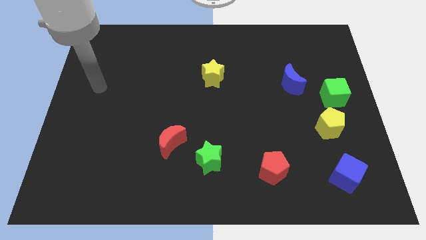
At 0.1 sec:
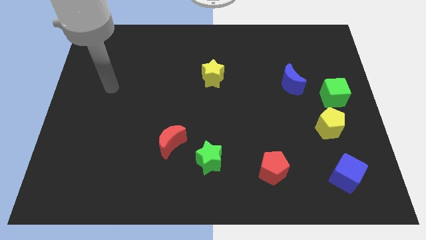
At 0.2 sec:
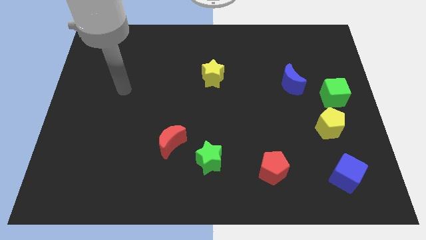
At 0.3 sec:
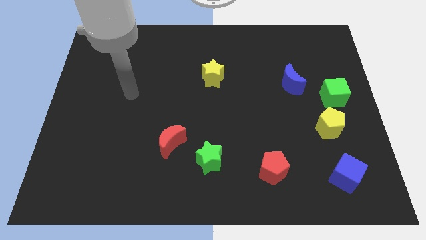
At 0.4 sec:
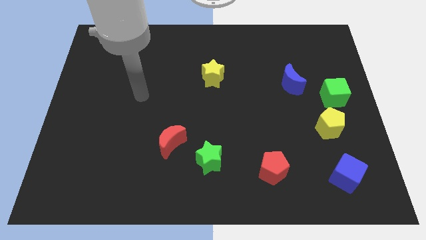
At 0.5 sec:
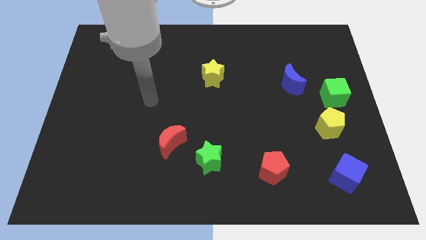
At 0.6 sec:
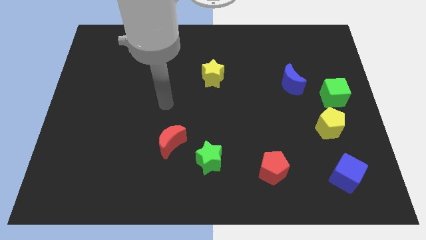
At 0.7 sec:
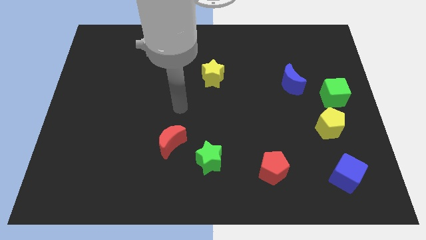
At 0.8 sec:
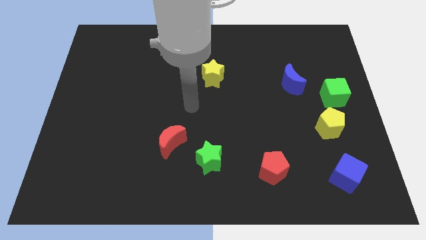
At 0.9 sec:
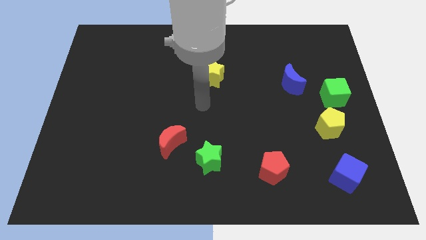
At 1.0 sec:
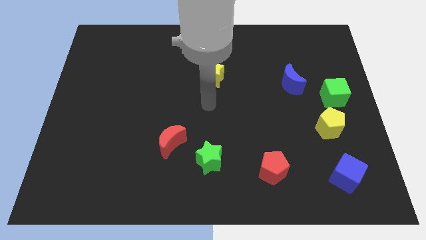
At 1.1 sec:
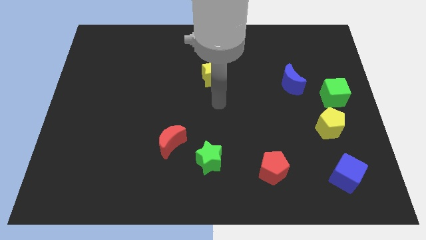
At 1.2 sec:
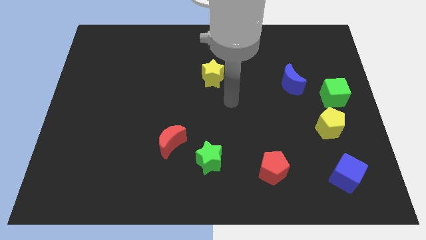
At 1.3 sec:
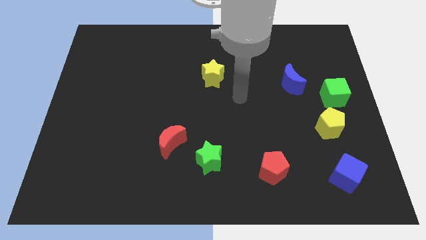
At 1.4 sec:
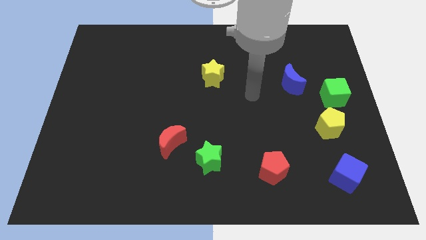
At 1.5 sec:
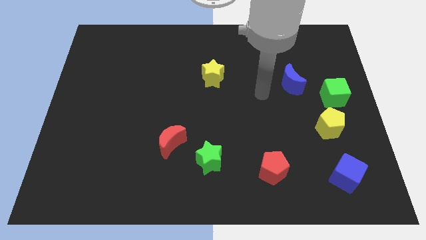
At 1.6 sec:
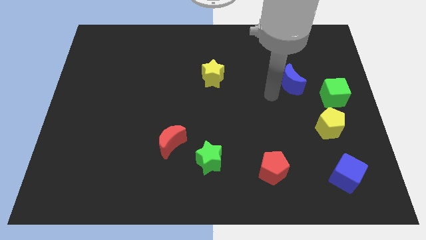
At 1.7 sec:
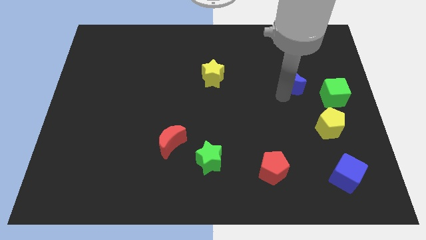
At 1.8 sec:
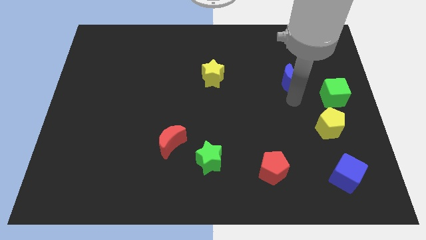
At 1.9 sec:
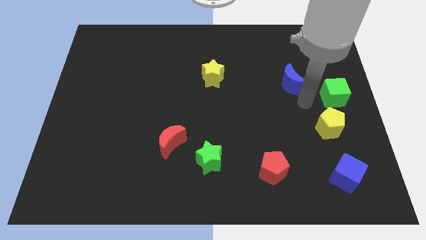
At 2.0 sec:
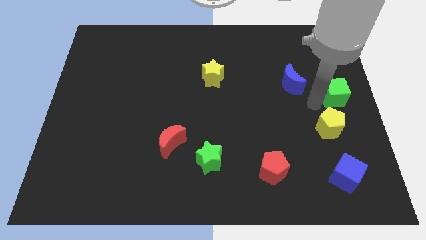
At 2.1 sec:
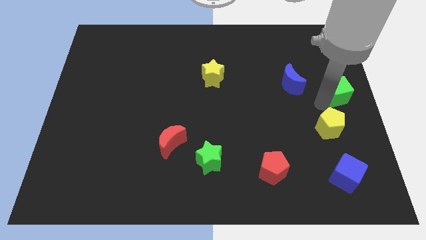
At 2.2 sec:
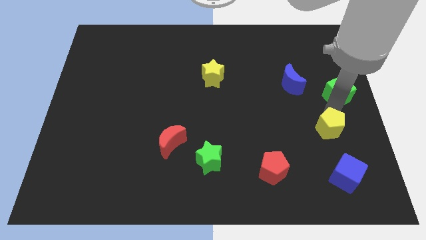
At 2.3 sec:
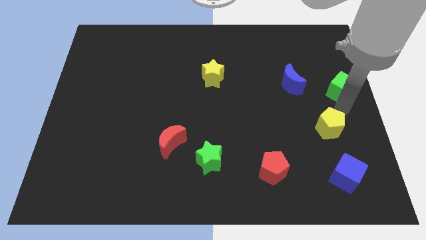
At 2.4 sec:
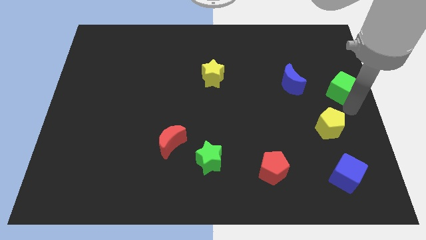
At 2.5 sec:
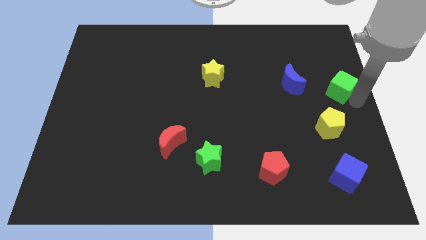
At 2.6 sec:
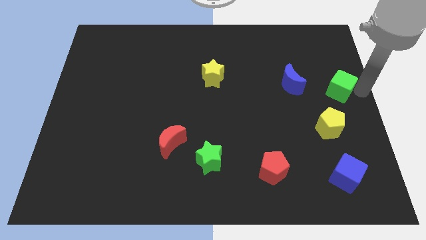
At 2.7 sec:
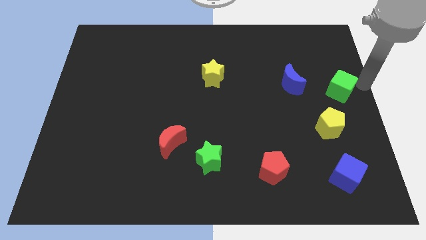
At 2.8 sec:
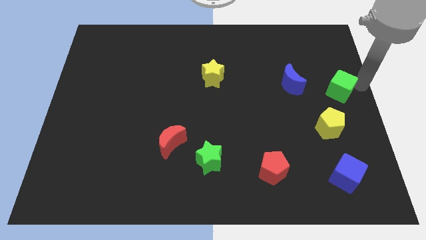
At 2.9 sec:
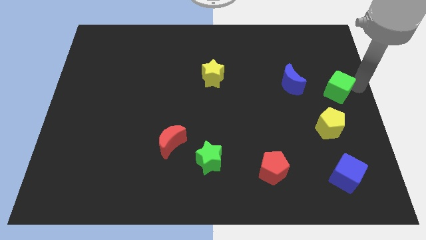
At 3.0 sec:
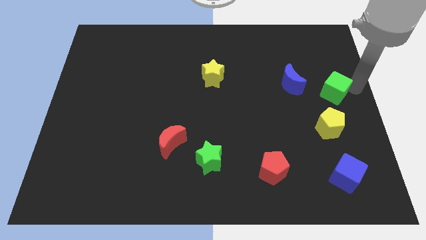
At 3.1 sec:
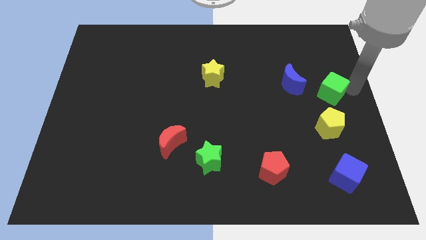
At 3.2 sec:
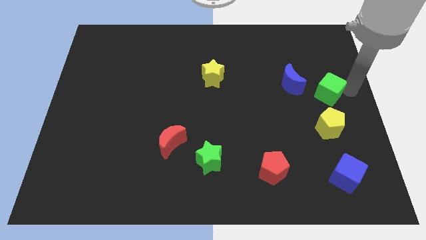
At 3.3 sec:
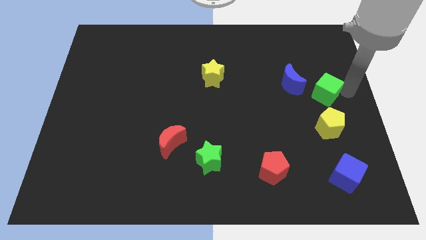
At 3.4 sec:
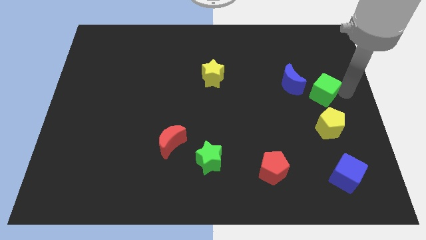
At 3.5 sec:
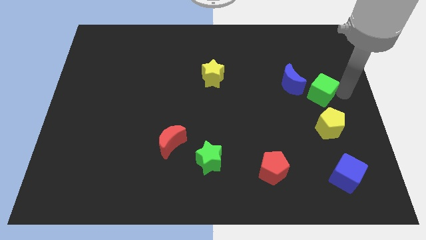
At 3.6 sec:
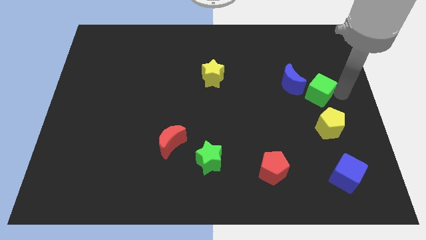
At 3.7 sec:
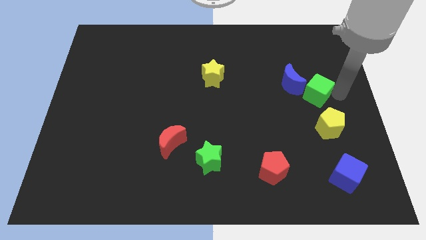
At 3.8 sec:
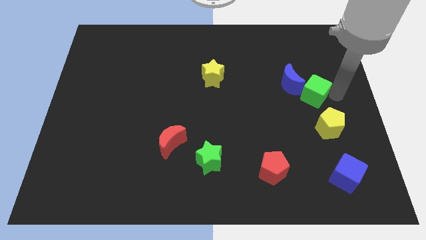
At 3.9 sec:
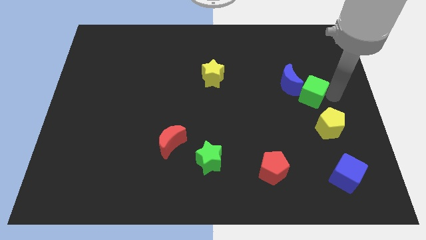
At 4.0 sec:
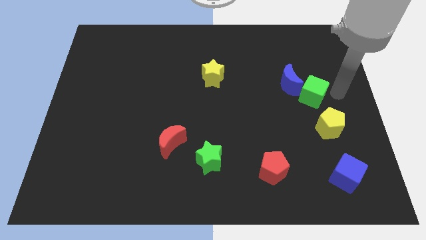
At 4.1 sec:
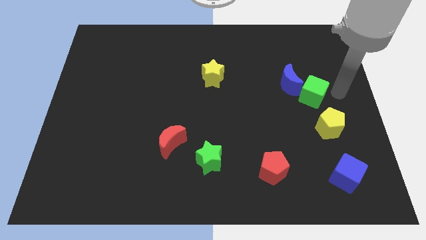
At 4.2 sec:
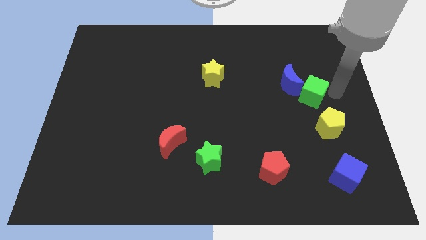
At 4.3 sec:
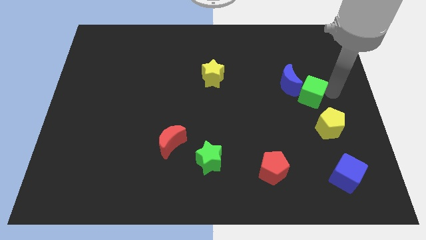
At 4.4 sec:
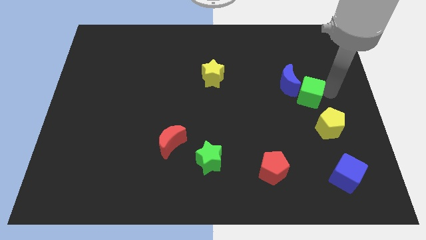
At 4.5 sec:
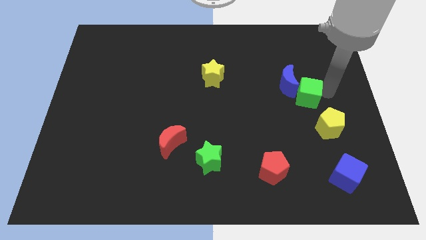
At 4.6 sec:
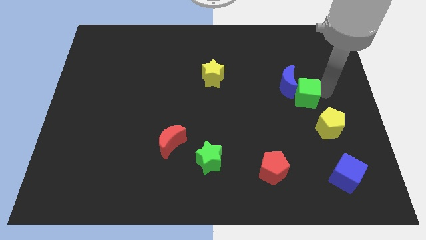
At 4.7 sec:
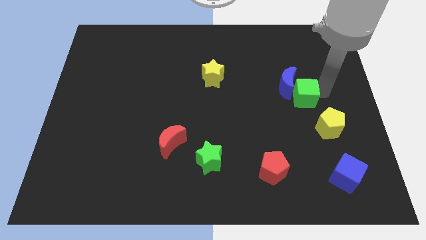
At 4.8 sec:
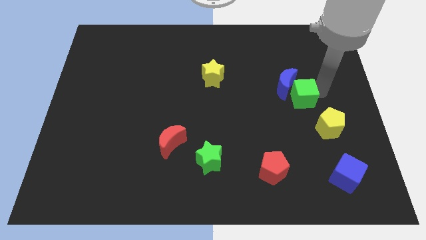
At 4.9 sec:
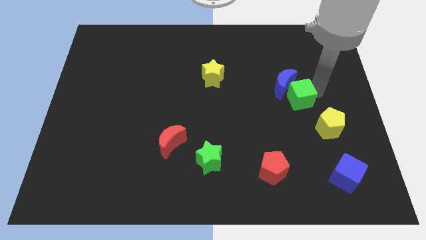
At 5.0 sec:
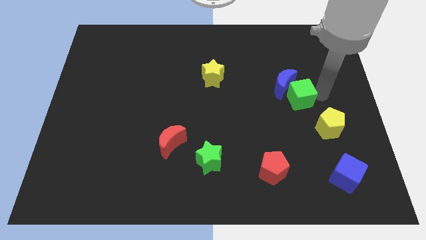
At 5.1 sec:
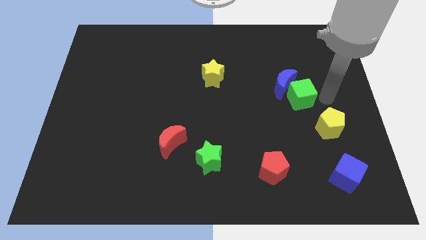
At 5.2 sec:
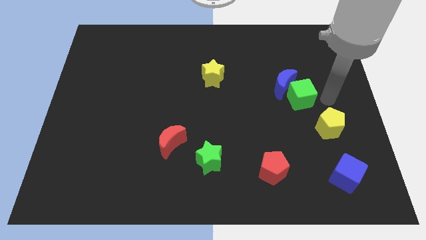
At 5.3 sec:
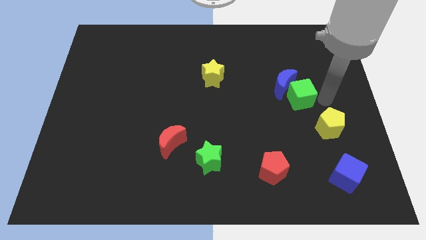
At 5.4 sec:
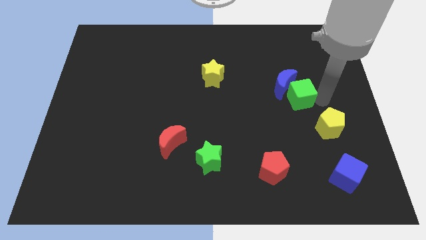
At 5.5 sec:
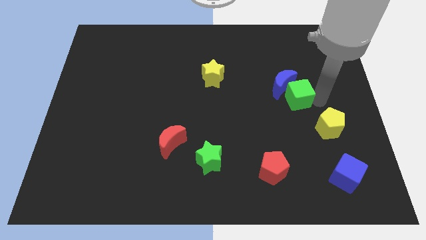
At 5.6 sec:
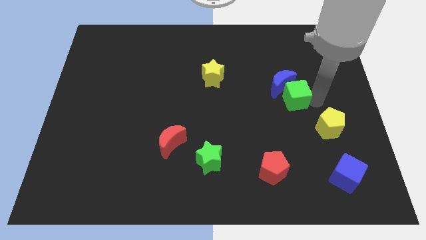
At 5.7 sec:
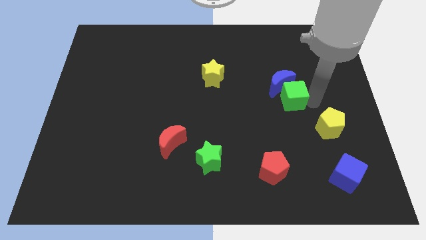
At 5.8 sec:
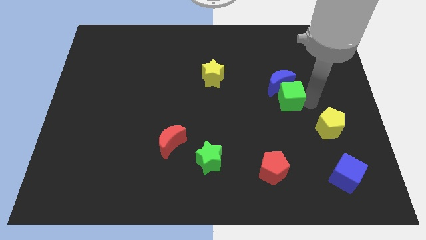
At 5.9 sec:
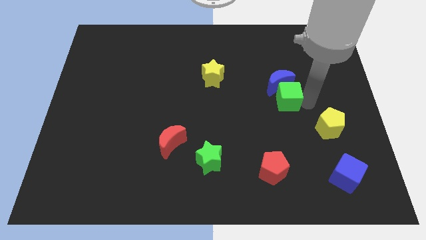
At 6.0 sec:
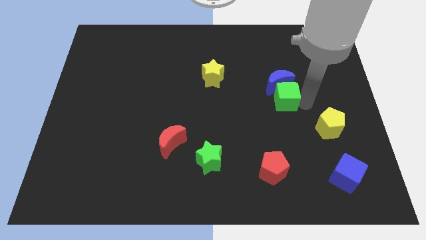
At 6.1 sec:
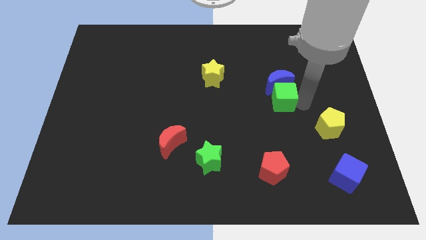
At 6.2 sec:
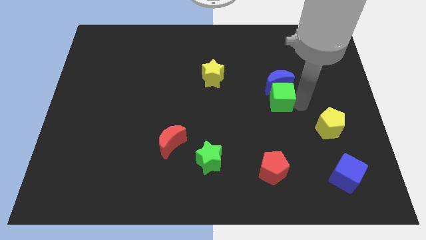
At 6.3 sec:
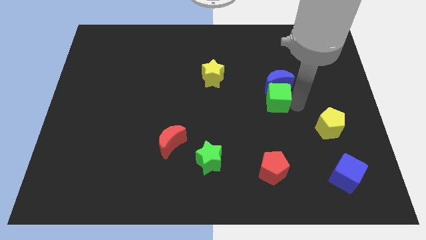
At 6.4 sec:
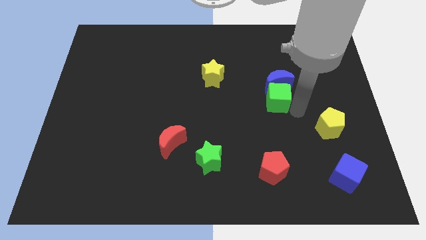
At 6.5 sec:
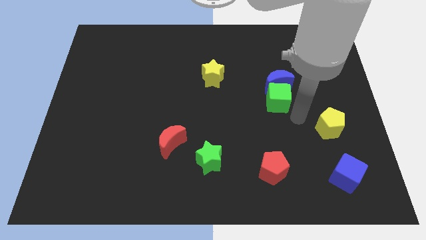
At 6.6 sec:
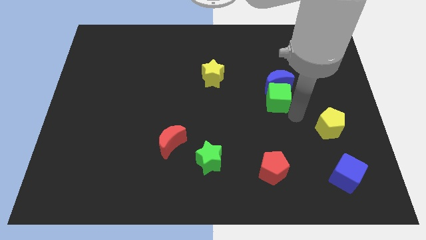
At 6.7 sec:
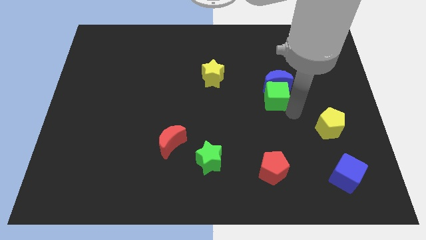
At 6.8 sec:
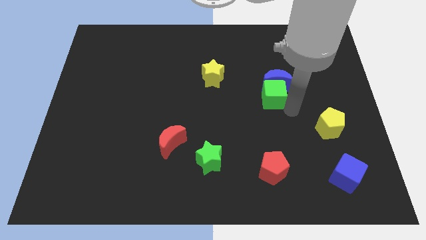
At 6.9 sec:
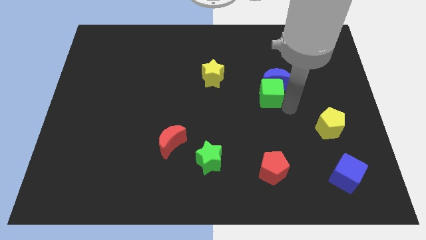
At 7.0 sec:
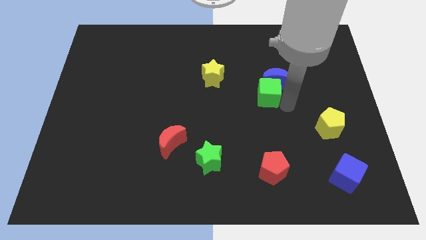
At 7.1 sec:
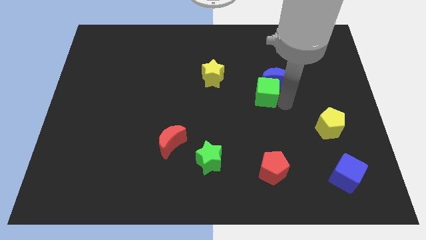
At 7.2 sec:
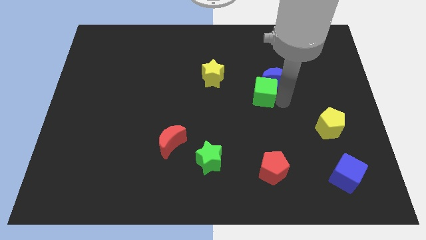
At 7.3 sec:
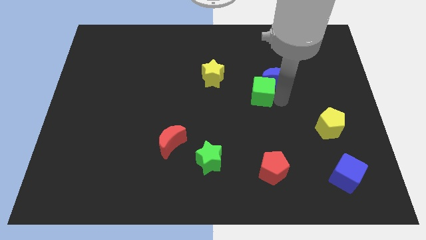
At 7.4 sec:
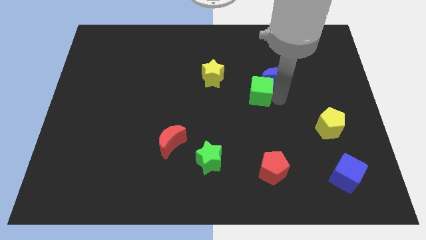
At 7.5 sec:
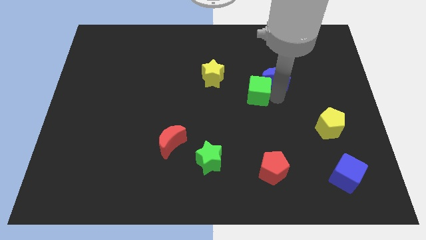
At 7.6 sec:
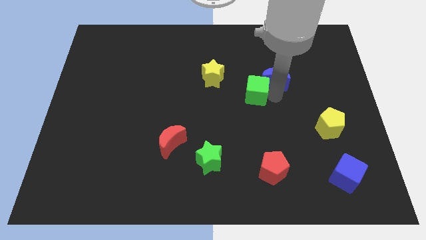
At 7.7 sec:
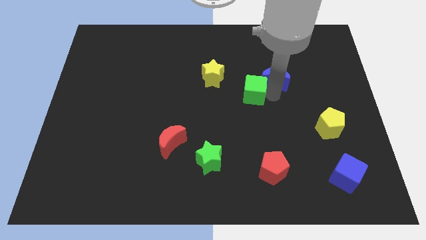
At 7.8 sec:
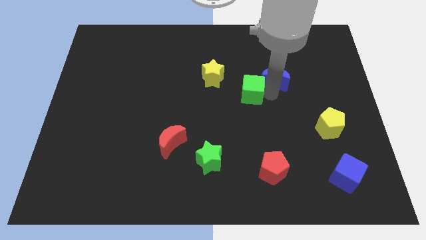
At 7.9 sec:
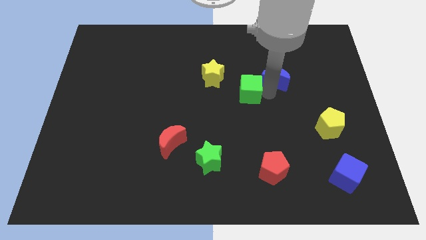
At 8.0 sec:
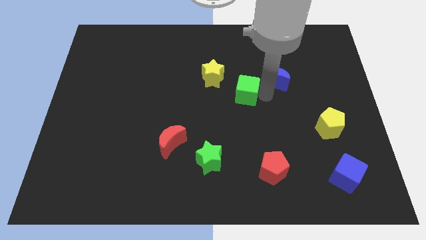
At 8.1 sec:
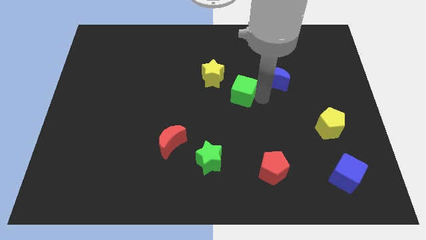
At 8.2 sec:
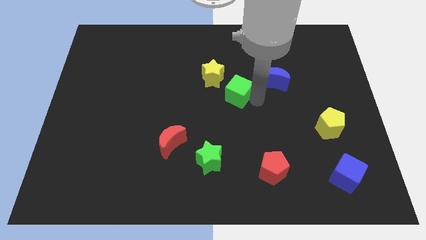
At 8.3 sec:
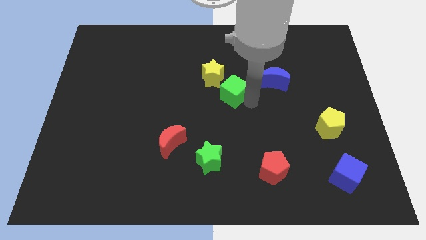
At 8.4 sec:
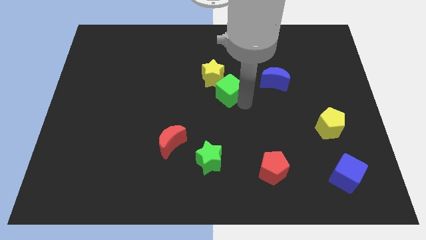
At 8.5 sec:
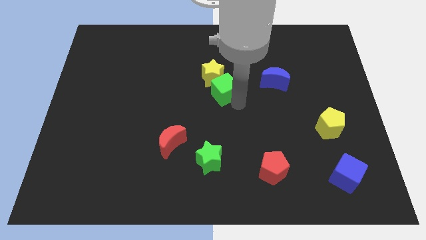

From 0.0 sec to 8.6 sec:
move the green cube next to the yellow star
